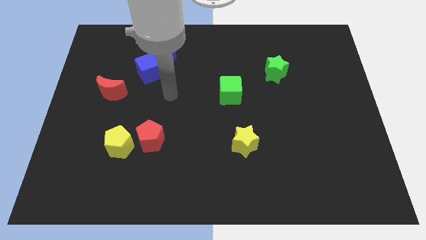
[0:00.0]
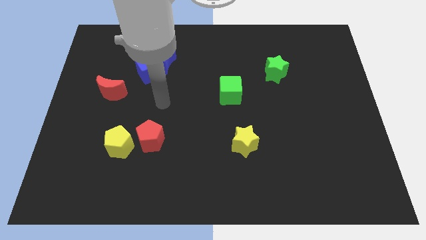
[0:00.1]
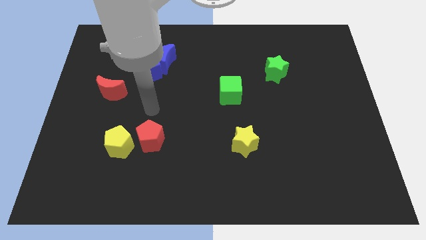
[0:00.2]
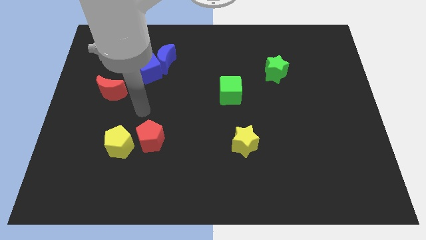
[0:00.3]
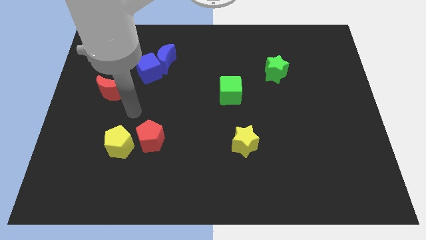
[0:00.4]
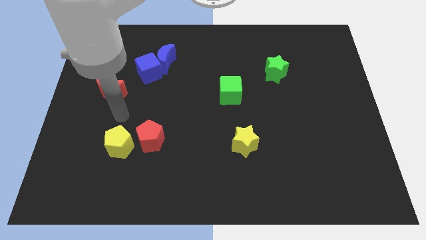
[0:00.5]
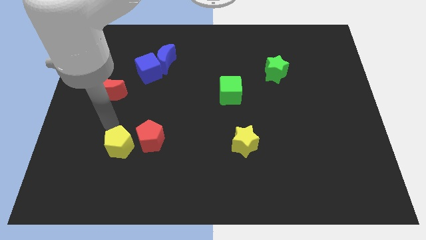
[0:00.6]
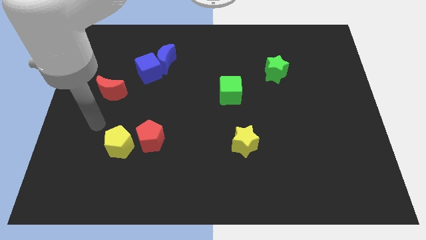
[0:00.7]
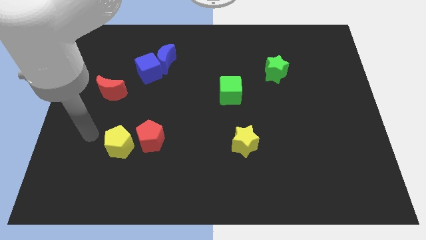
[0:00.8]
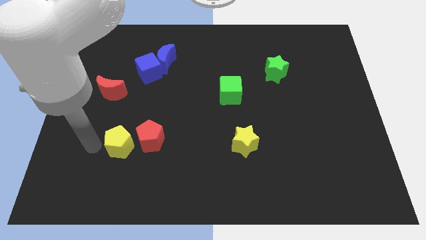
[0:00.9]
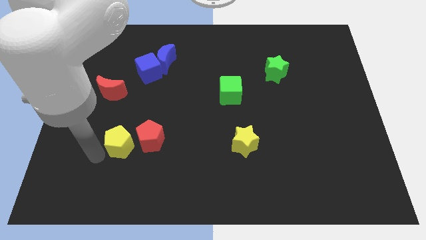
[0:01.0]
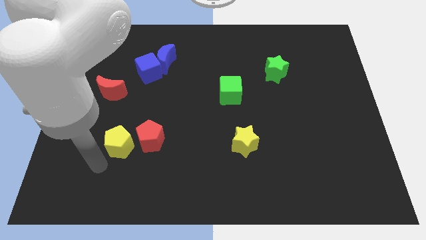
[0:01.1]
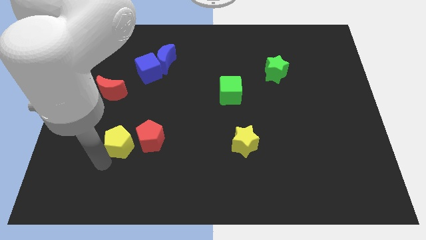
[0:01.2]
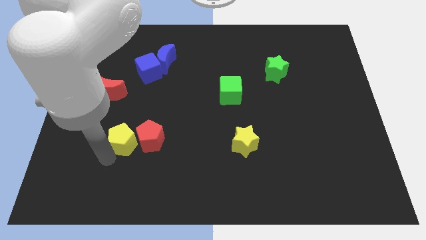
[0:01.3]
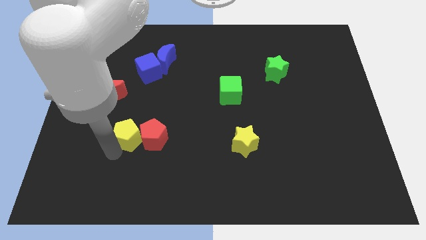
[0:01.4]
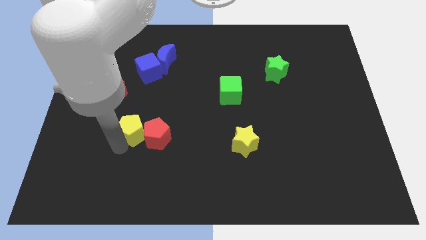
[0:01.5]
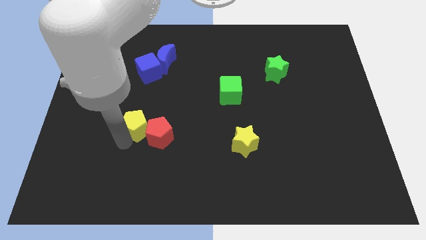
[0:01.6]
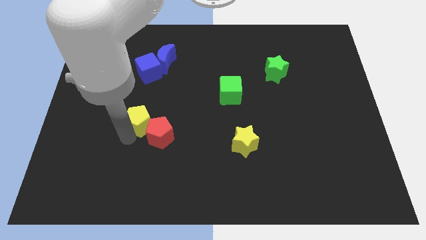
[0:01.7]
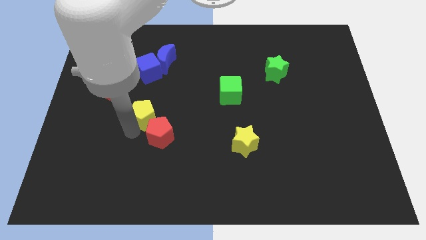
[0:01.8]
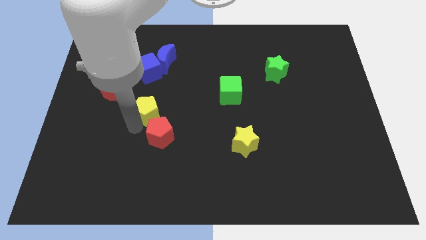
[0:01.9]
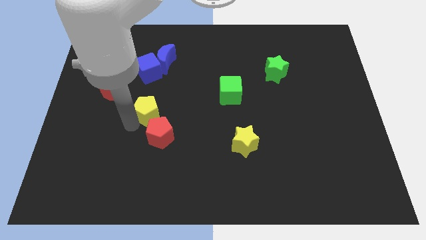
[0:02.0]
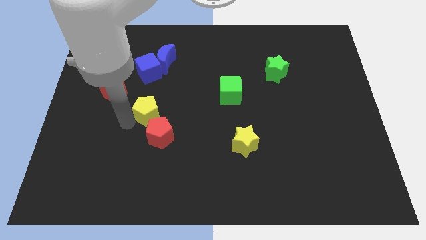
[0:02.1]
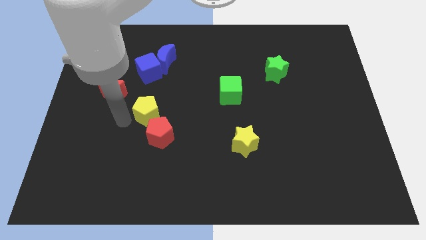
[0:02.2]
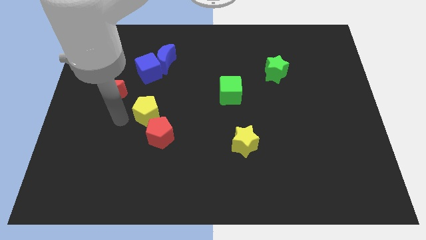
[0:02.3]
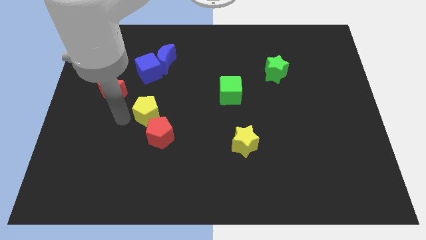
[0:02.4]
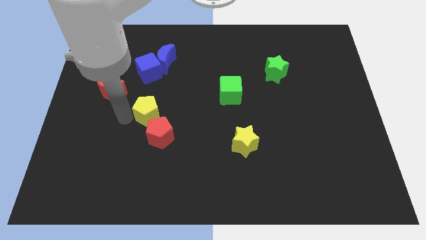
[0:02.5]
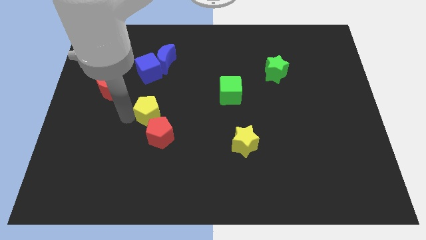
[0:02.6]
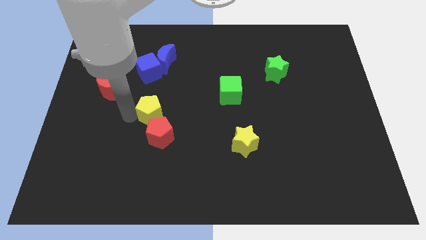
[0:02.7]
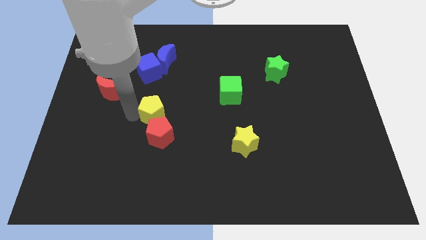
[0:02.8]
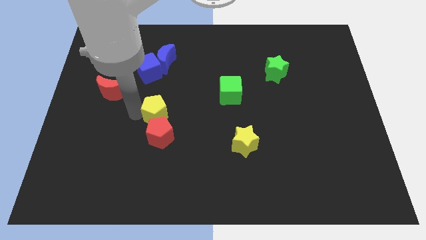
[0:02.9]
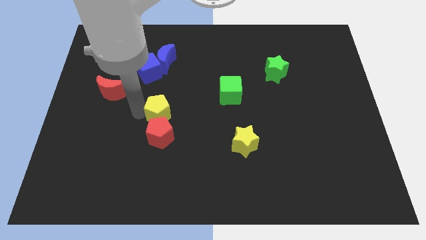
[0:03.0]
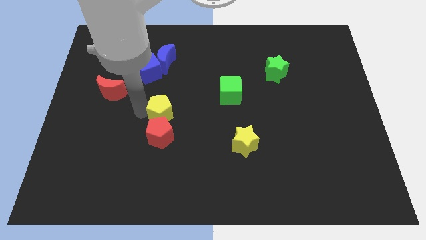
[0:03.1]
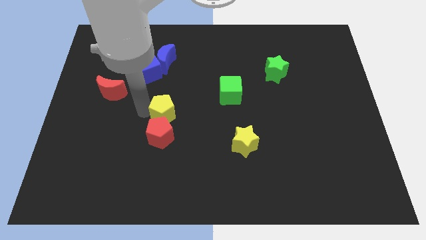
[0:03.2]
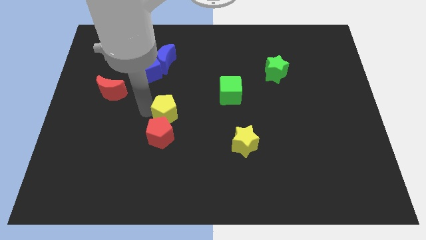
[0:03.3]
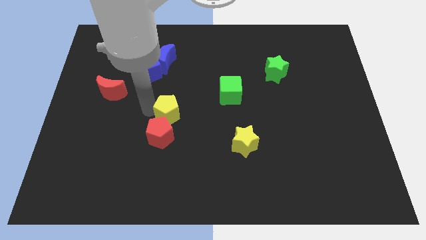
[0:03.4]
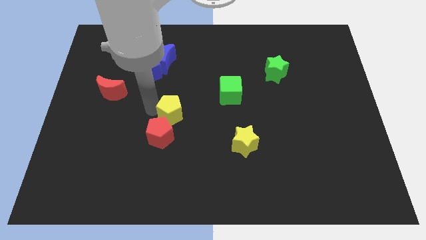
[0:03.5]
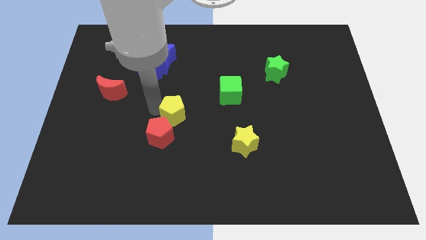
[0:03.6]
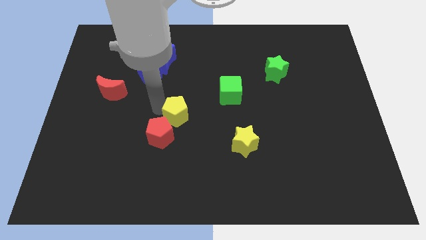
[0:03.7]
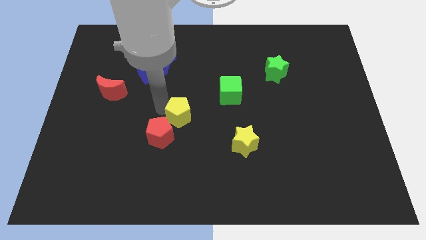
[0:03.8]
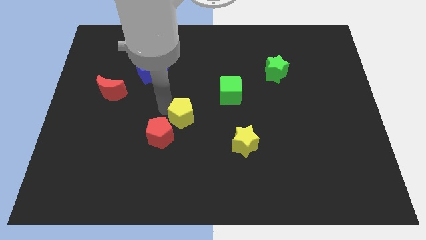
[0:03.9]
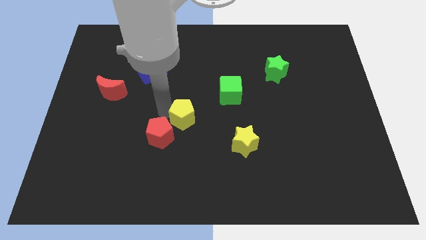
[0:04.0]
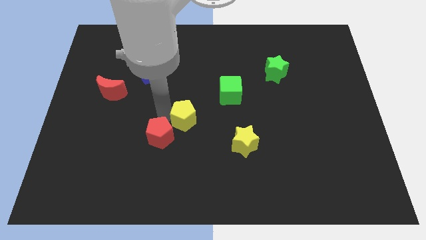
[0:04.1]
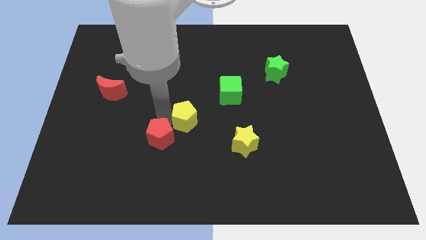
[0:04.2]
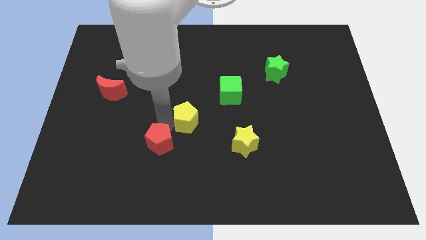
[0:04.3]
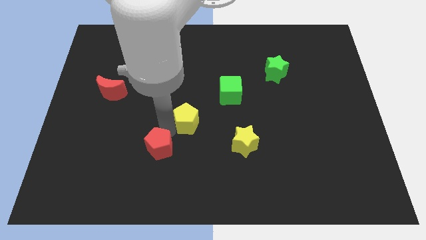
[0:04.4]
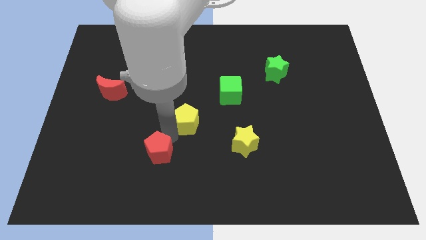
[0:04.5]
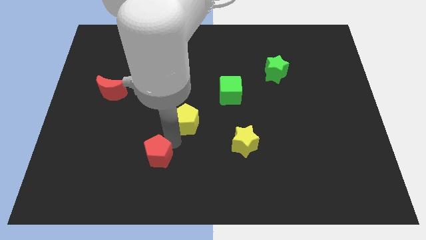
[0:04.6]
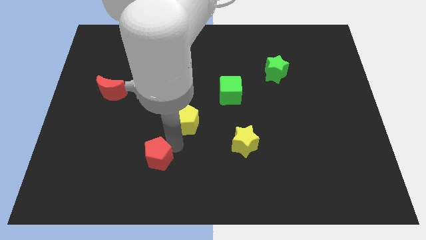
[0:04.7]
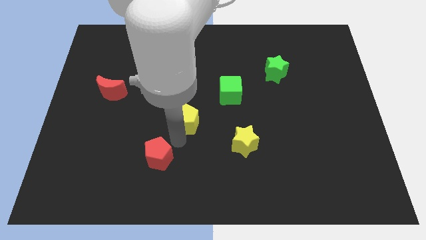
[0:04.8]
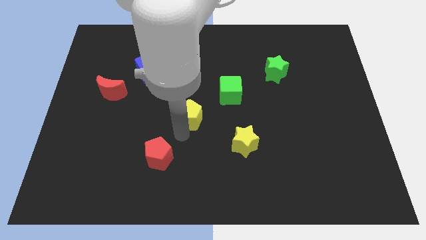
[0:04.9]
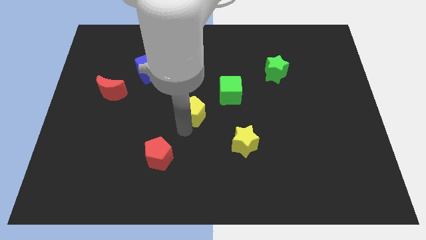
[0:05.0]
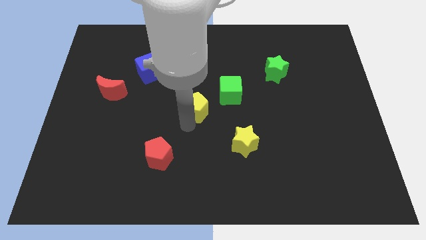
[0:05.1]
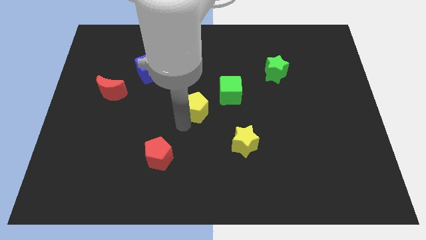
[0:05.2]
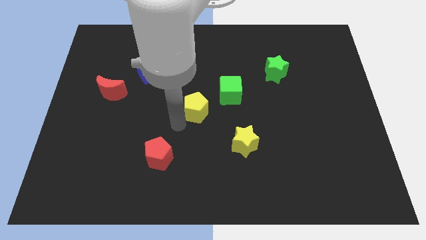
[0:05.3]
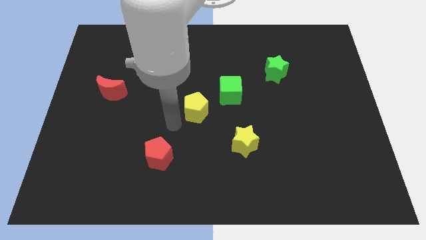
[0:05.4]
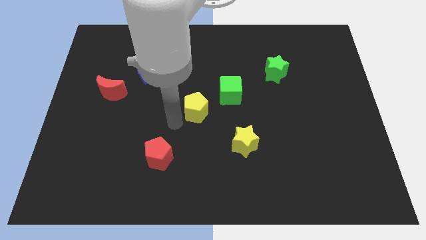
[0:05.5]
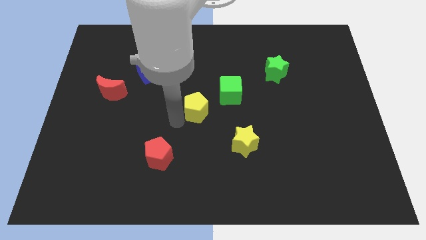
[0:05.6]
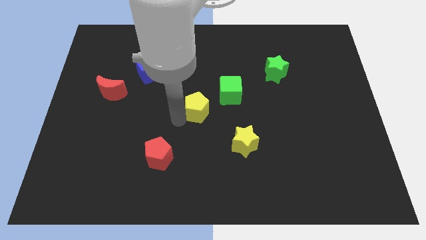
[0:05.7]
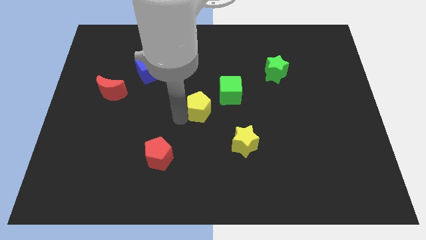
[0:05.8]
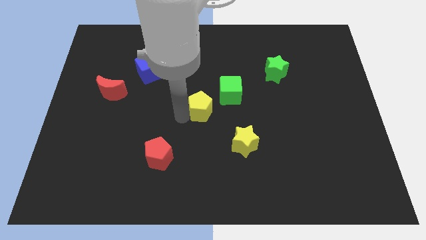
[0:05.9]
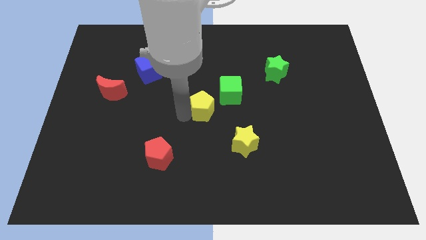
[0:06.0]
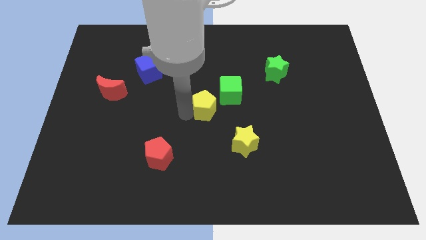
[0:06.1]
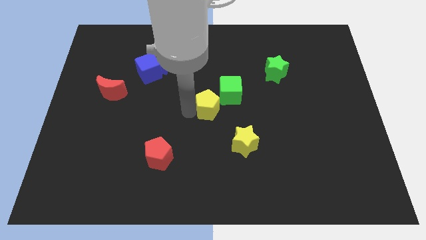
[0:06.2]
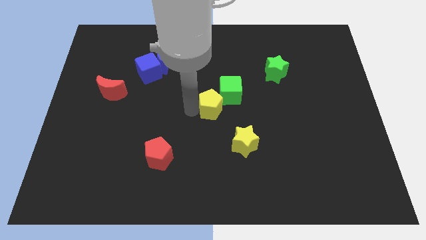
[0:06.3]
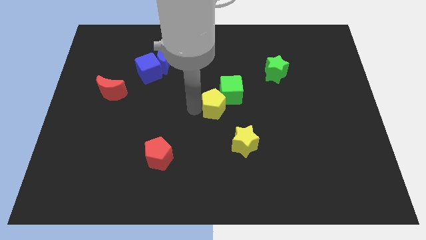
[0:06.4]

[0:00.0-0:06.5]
move the yellow pentagon to the green cube
